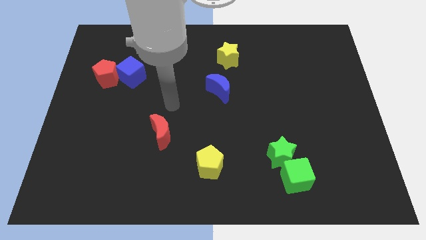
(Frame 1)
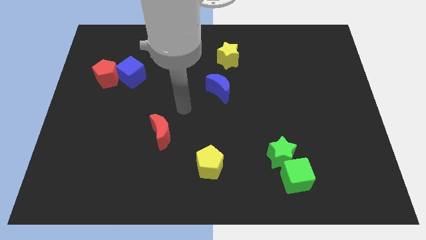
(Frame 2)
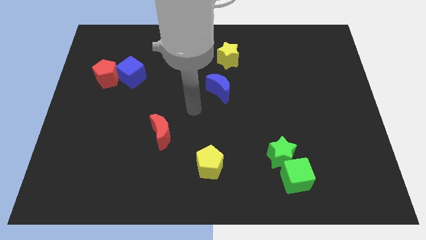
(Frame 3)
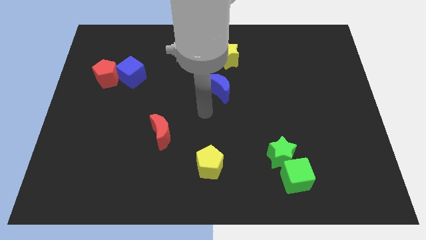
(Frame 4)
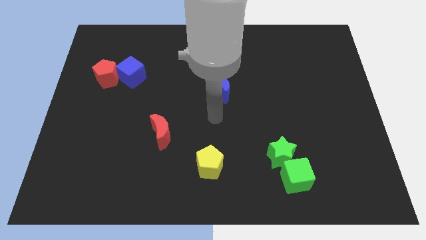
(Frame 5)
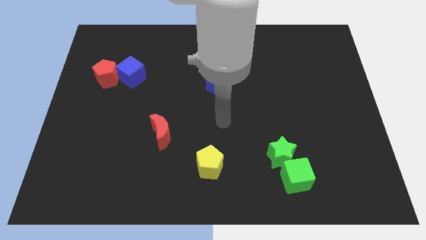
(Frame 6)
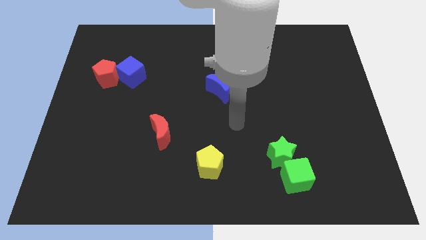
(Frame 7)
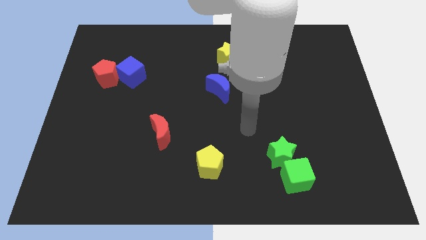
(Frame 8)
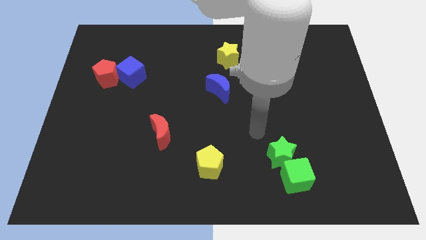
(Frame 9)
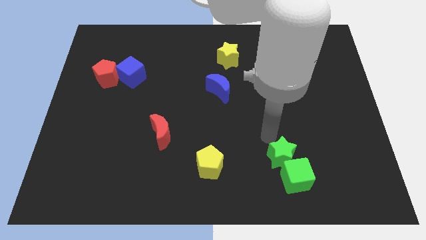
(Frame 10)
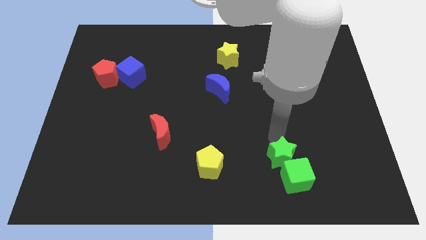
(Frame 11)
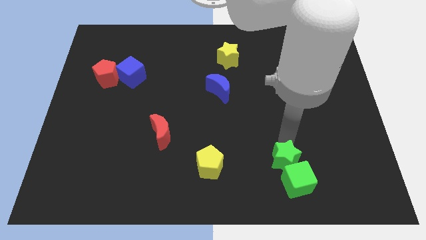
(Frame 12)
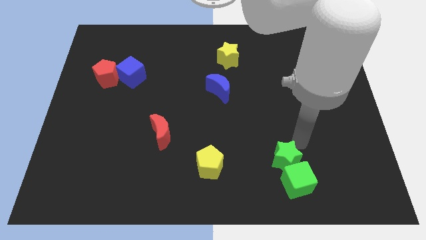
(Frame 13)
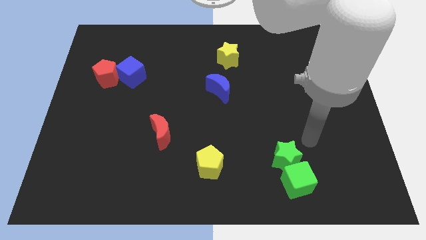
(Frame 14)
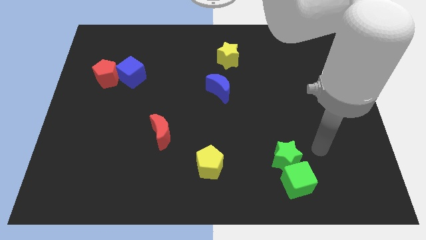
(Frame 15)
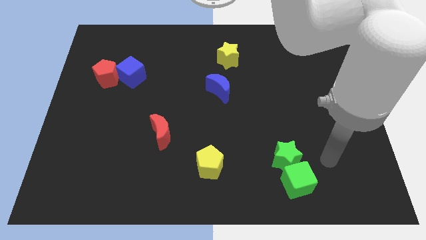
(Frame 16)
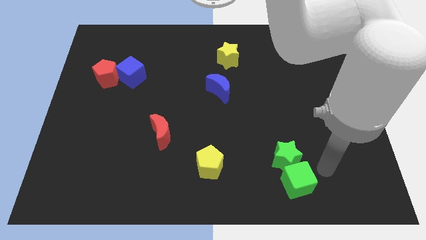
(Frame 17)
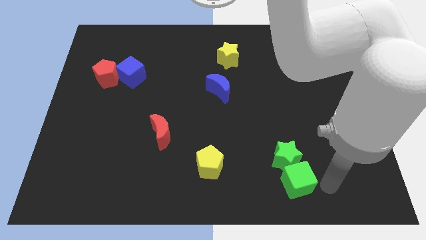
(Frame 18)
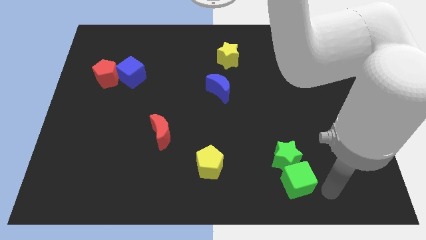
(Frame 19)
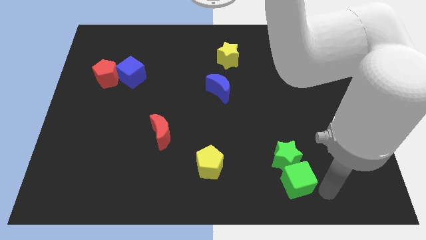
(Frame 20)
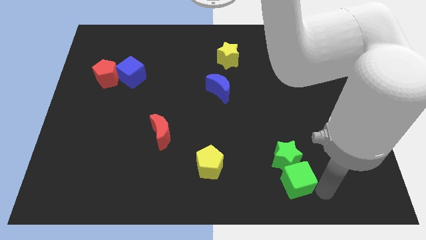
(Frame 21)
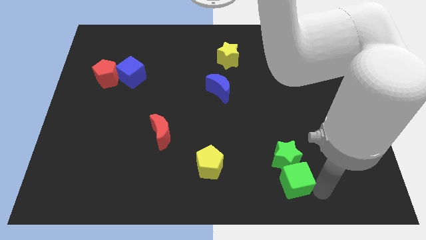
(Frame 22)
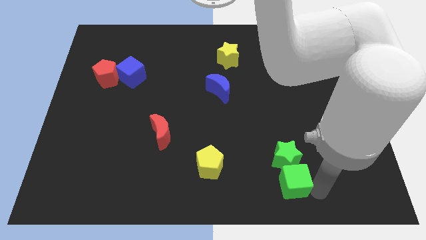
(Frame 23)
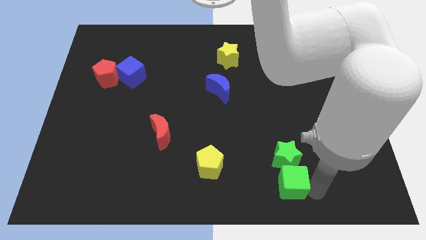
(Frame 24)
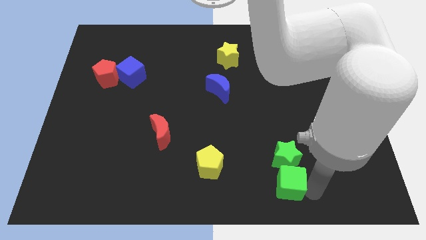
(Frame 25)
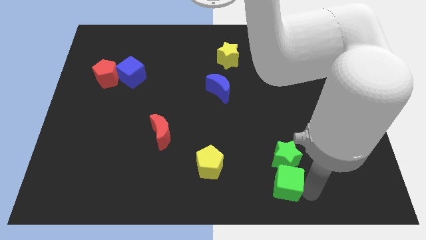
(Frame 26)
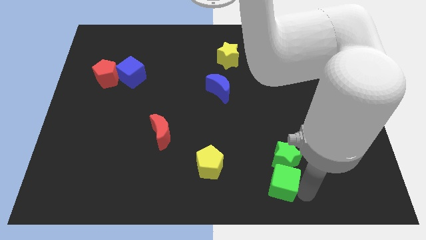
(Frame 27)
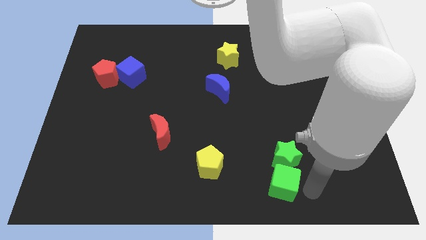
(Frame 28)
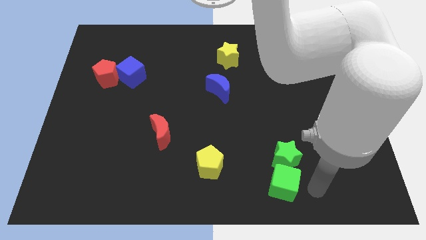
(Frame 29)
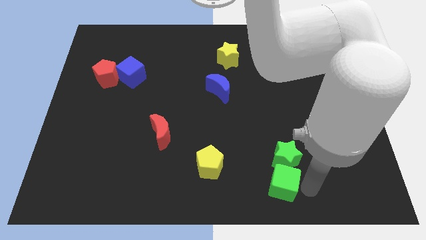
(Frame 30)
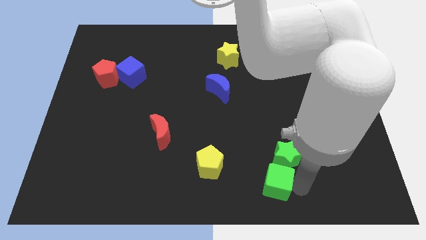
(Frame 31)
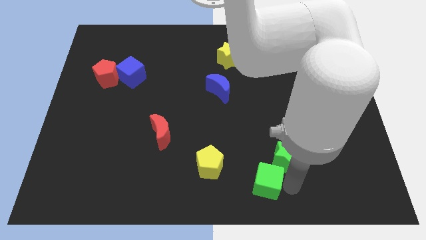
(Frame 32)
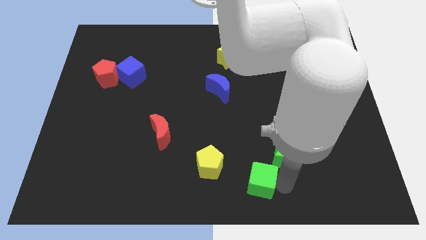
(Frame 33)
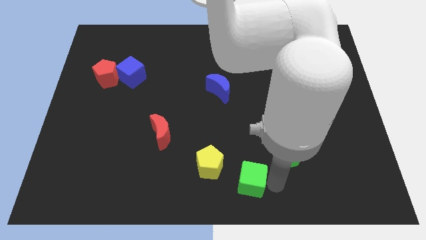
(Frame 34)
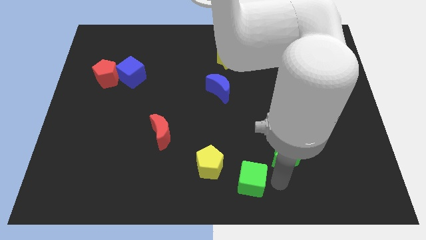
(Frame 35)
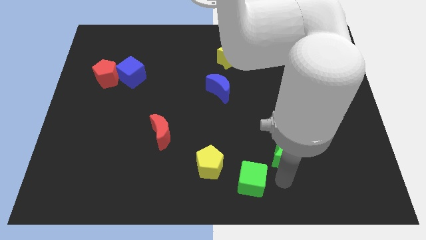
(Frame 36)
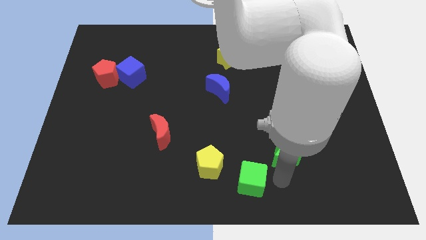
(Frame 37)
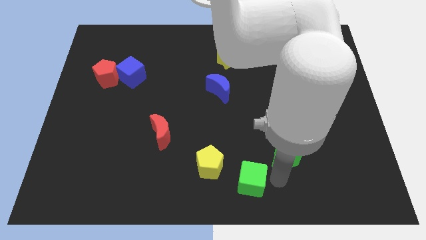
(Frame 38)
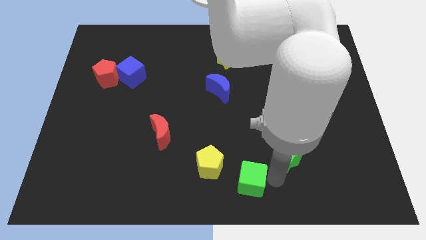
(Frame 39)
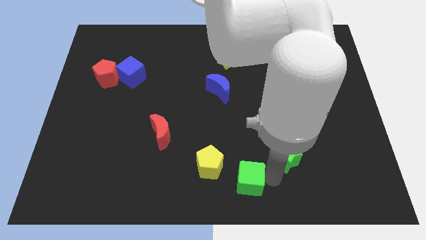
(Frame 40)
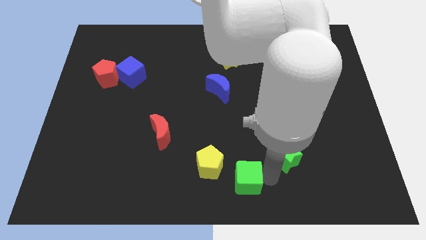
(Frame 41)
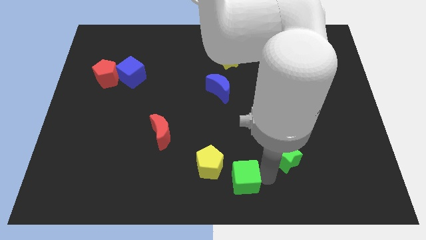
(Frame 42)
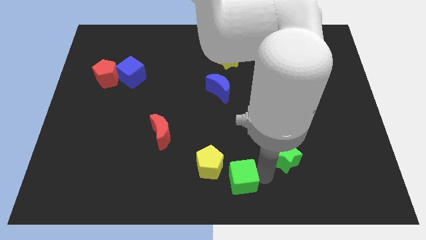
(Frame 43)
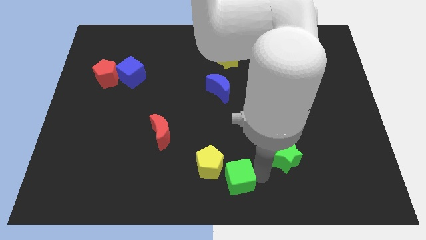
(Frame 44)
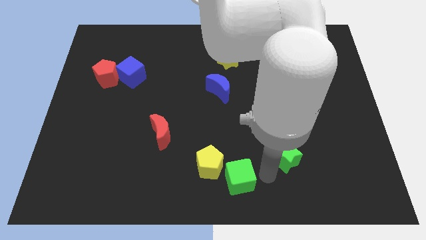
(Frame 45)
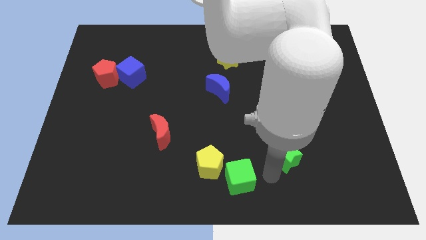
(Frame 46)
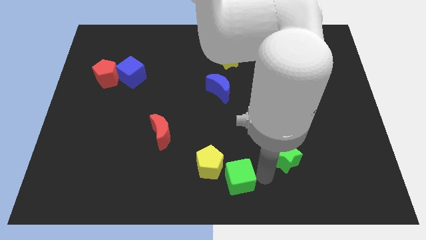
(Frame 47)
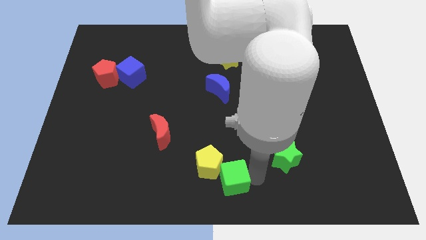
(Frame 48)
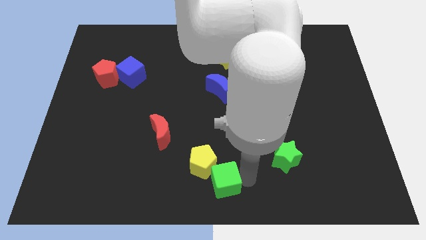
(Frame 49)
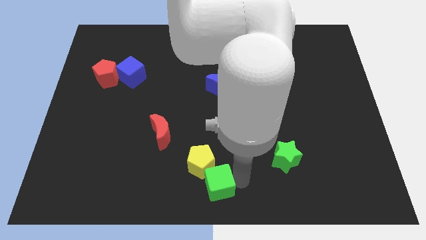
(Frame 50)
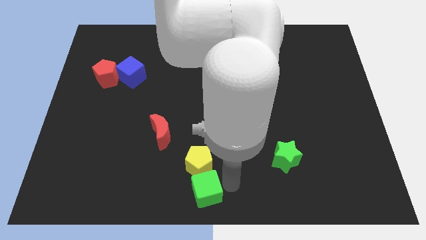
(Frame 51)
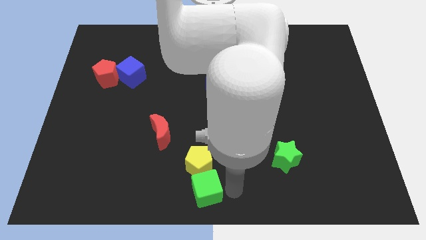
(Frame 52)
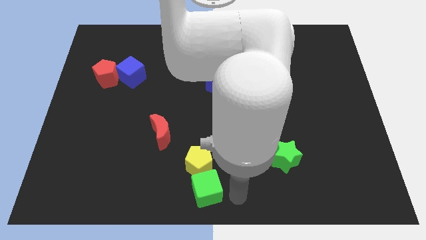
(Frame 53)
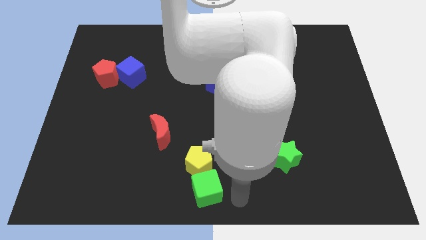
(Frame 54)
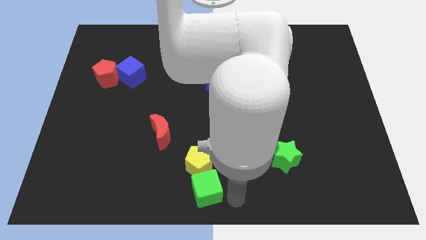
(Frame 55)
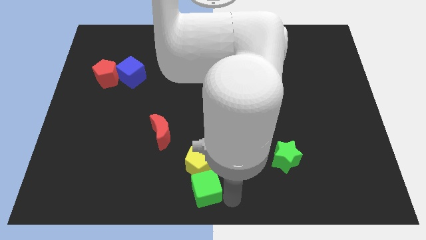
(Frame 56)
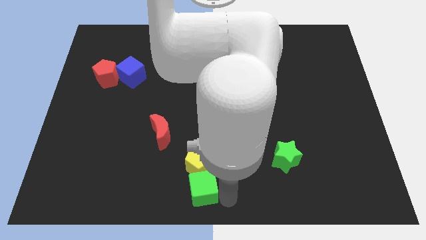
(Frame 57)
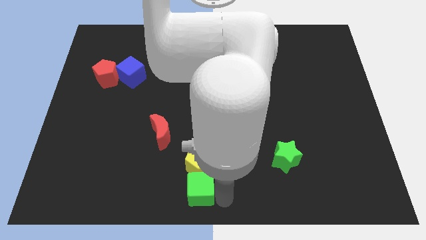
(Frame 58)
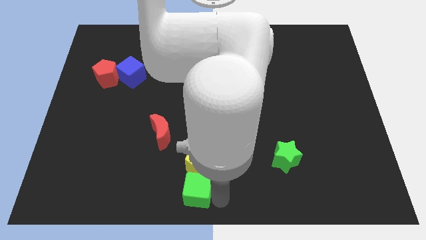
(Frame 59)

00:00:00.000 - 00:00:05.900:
slide the green cube left

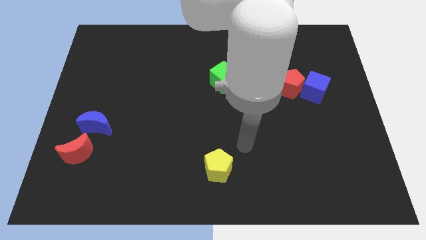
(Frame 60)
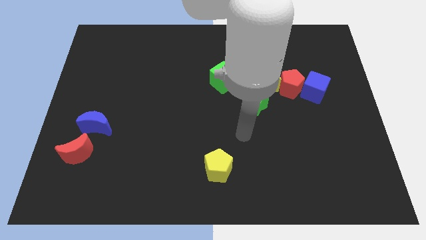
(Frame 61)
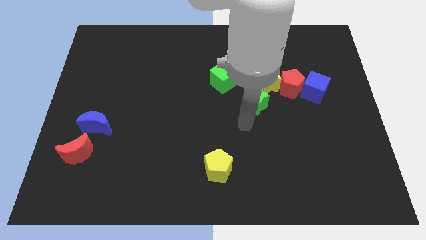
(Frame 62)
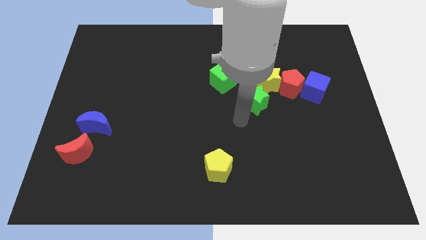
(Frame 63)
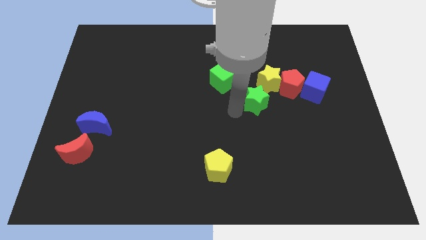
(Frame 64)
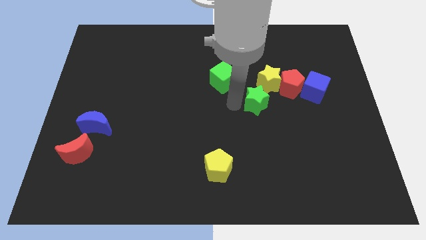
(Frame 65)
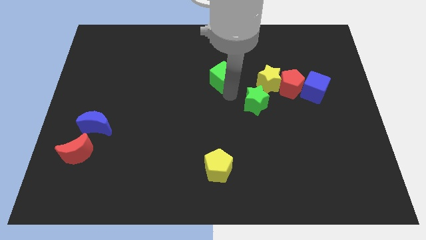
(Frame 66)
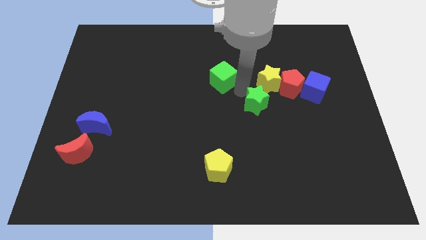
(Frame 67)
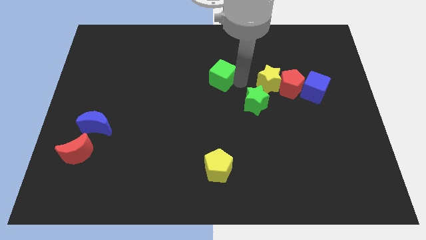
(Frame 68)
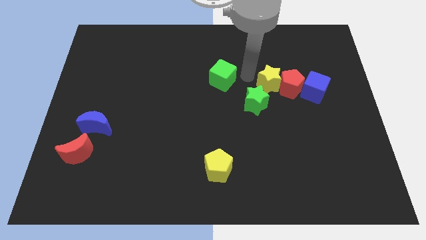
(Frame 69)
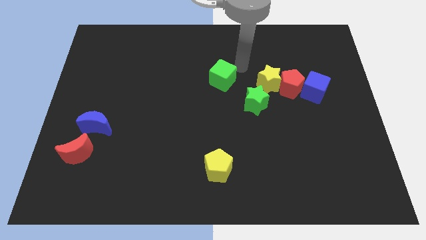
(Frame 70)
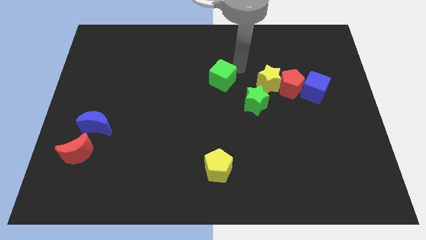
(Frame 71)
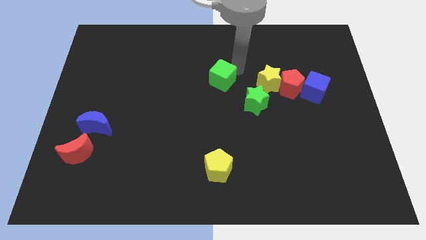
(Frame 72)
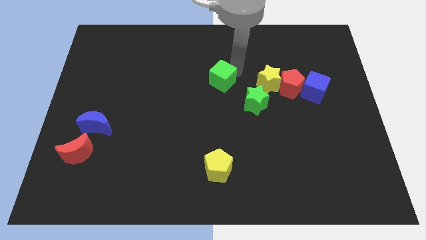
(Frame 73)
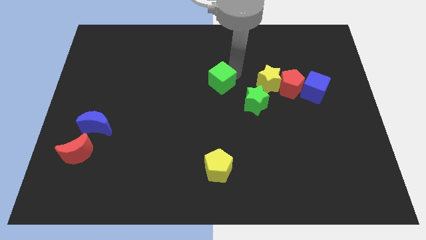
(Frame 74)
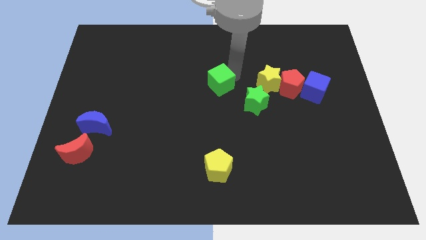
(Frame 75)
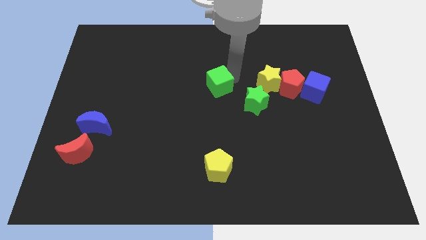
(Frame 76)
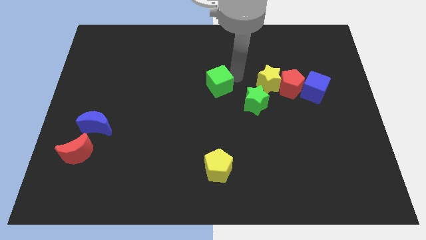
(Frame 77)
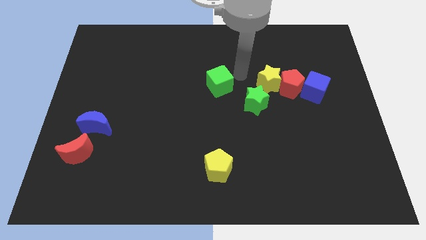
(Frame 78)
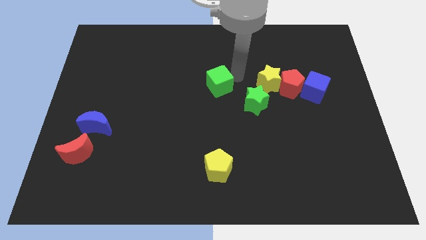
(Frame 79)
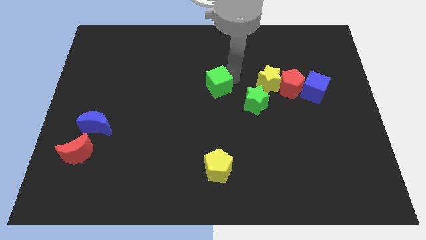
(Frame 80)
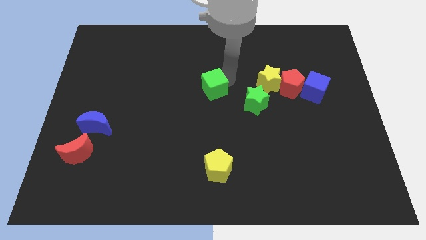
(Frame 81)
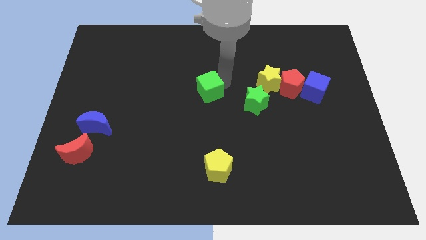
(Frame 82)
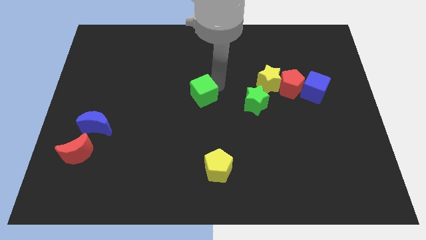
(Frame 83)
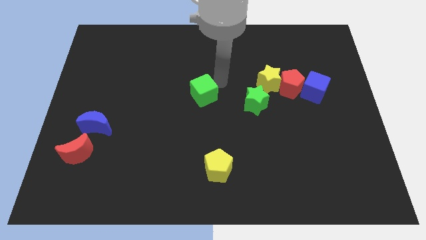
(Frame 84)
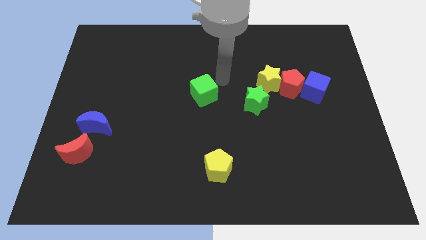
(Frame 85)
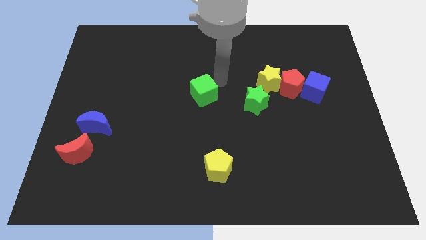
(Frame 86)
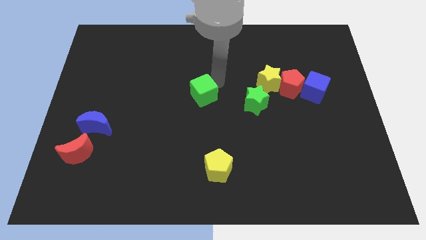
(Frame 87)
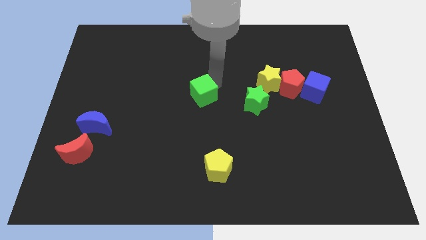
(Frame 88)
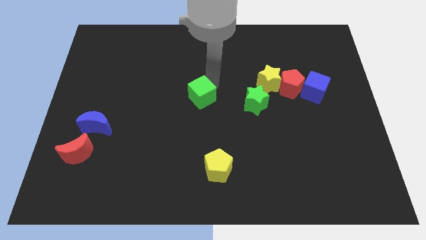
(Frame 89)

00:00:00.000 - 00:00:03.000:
push the green cube down and to the left diagonally a little bit
